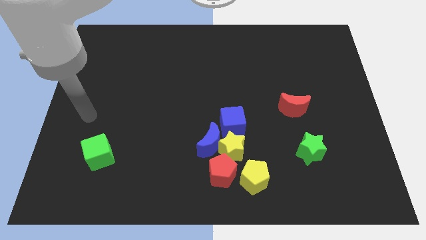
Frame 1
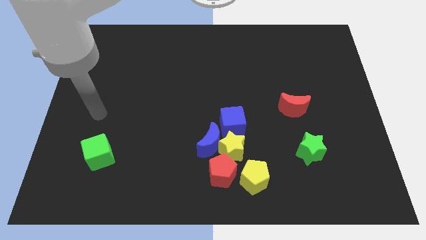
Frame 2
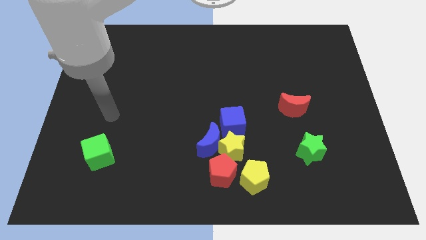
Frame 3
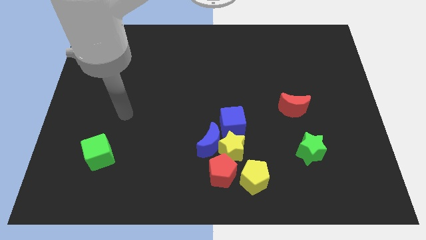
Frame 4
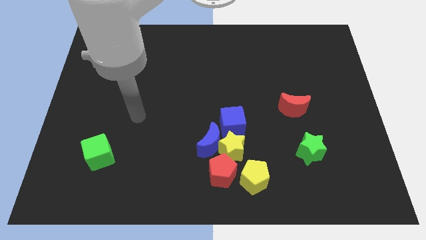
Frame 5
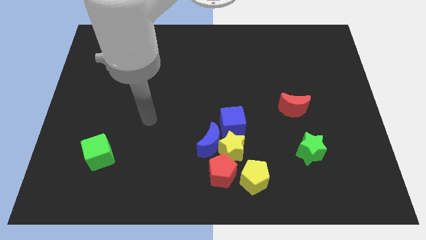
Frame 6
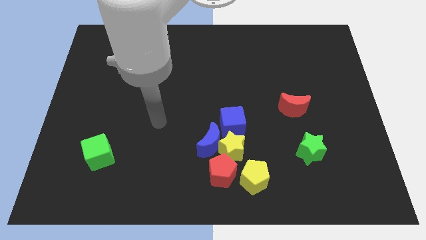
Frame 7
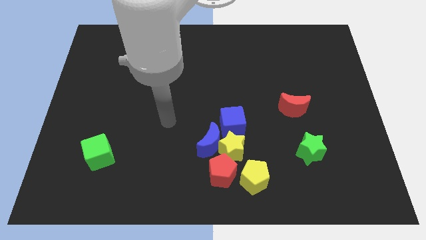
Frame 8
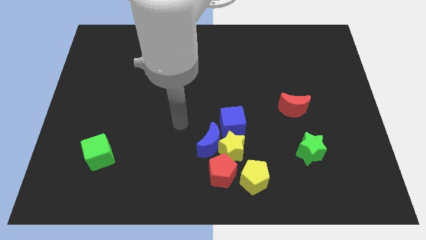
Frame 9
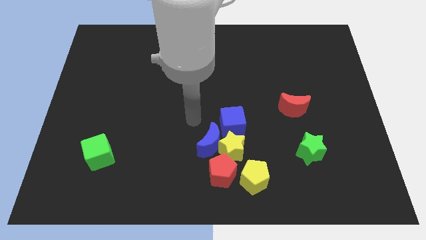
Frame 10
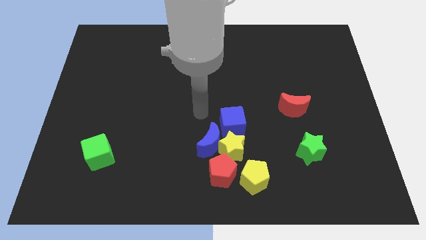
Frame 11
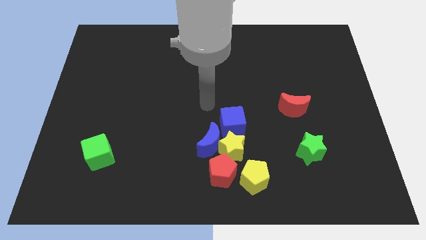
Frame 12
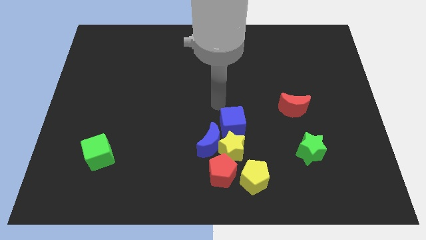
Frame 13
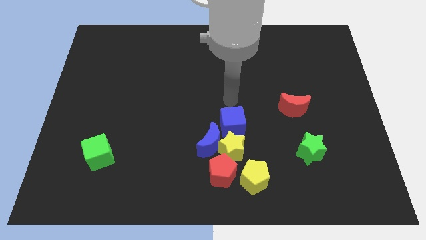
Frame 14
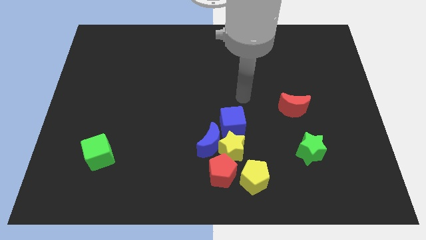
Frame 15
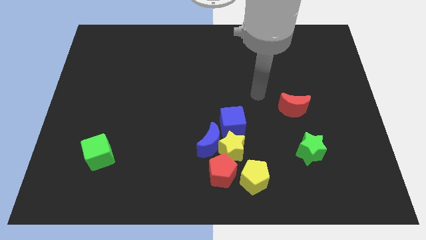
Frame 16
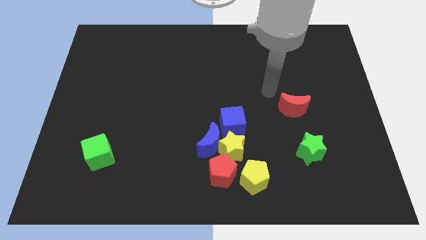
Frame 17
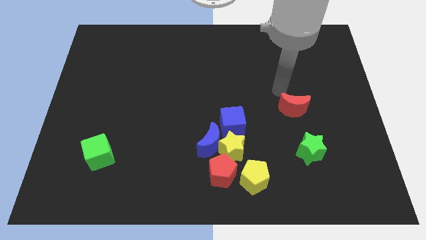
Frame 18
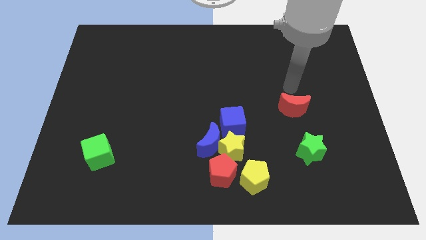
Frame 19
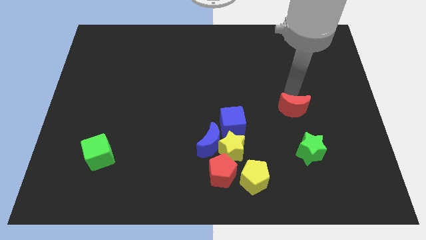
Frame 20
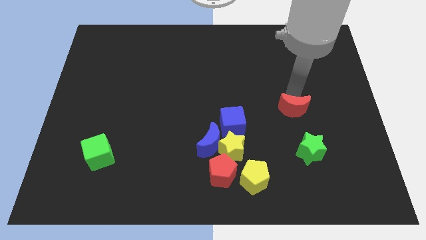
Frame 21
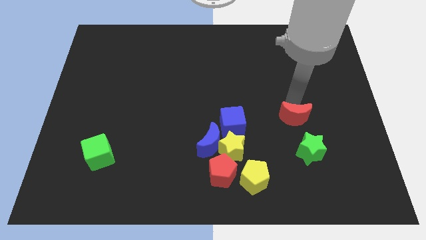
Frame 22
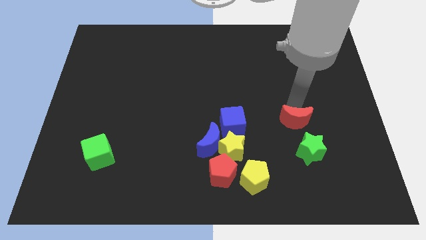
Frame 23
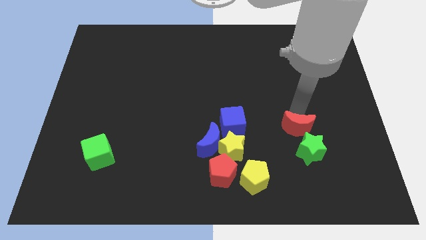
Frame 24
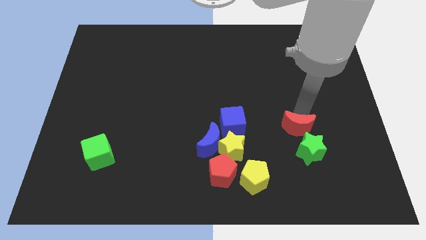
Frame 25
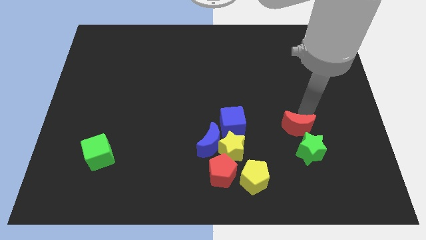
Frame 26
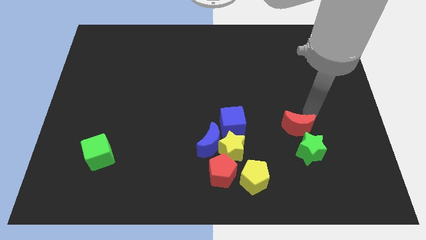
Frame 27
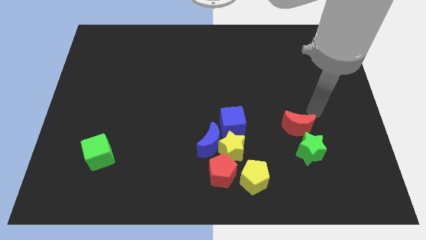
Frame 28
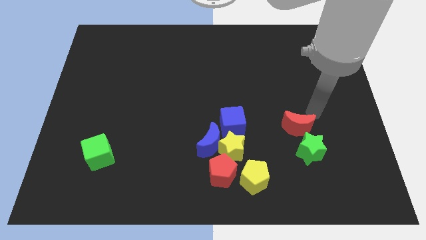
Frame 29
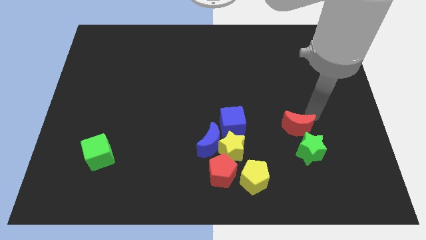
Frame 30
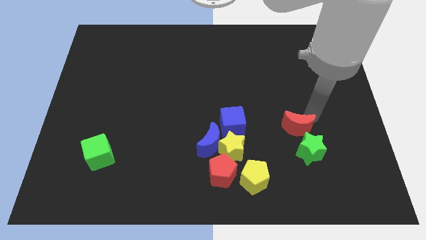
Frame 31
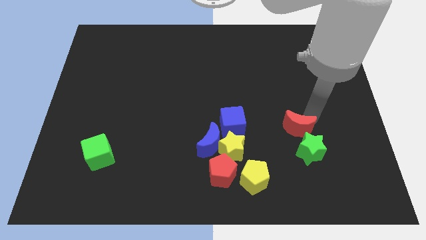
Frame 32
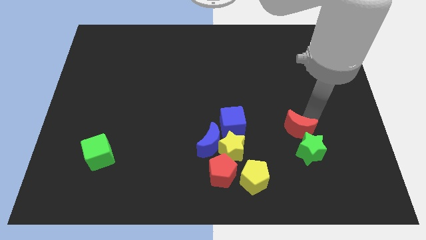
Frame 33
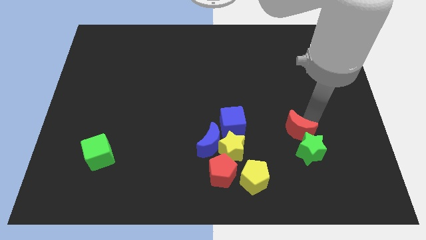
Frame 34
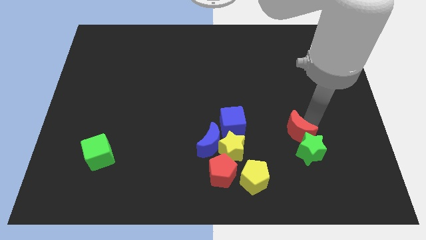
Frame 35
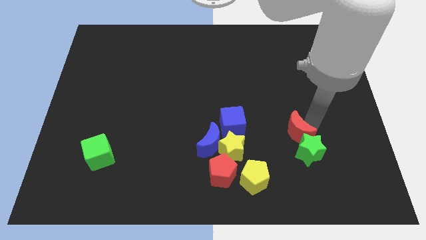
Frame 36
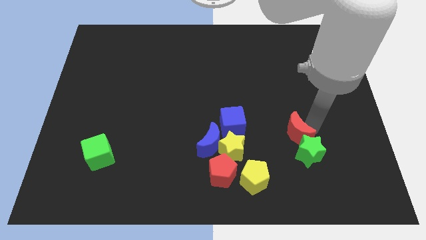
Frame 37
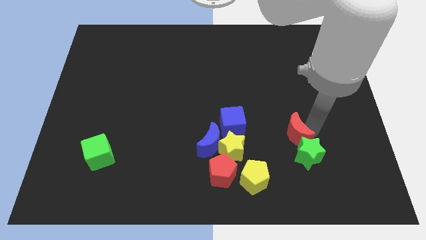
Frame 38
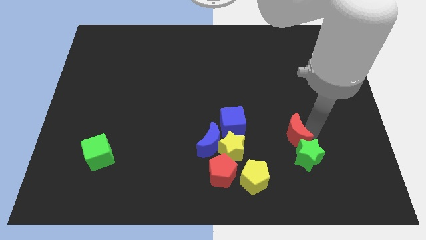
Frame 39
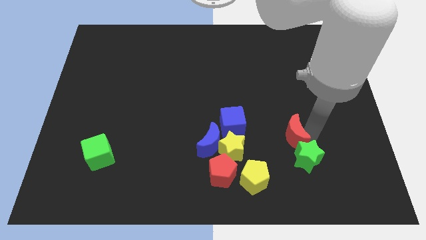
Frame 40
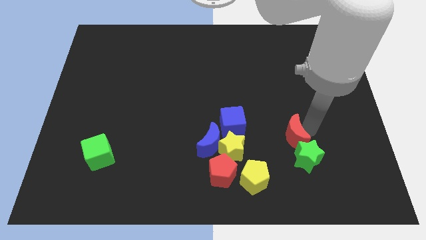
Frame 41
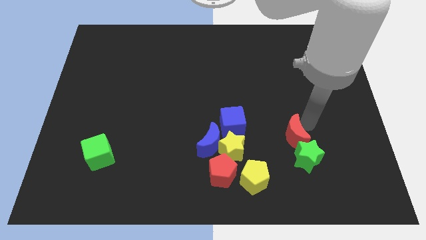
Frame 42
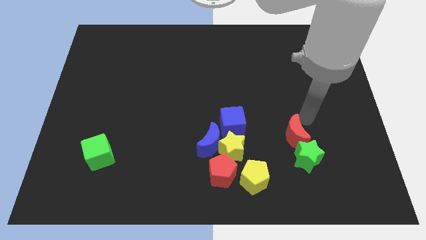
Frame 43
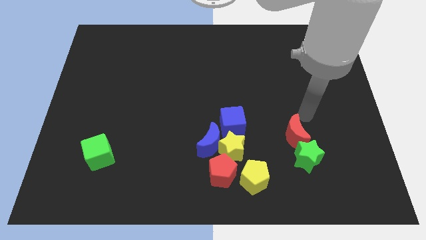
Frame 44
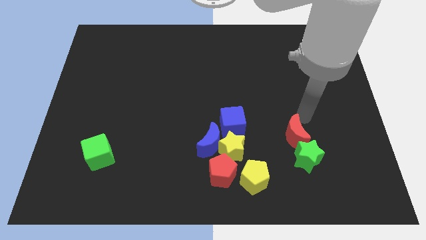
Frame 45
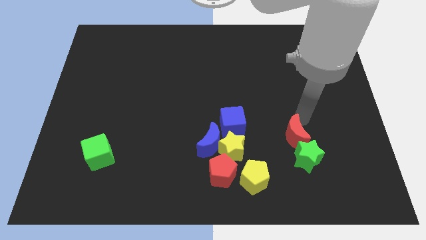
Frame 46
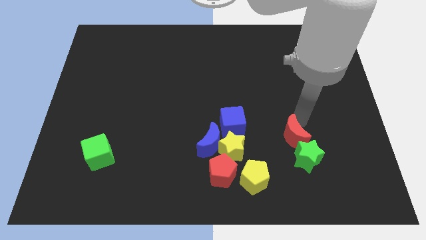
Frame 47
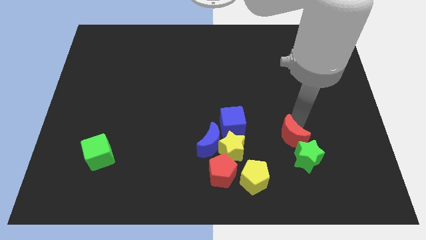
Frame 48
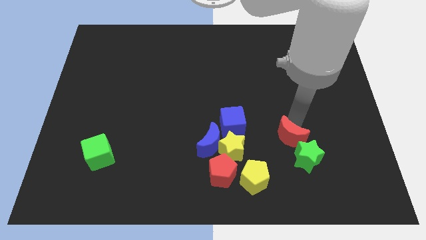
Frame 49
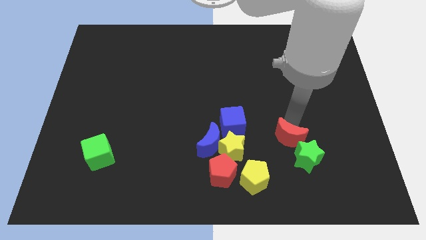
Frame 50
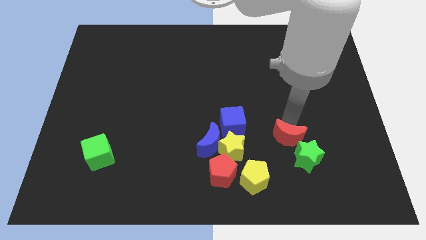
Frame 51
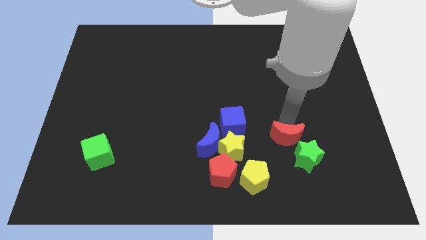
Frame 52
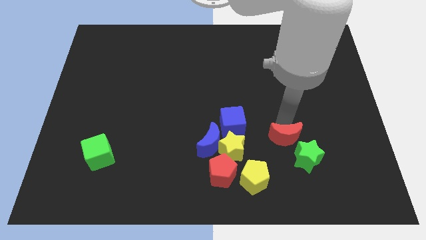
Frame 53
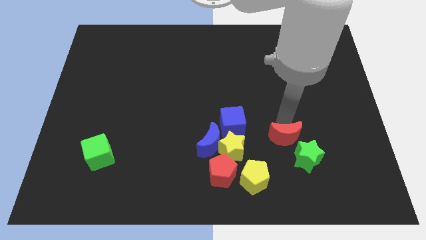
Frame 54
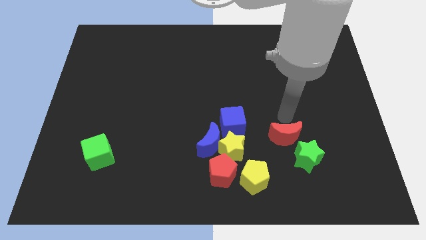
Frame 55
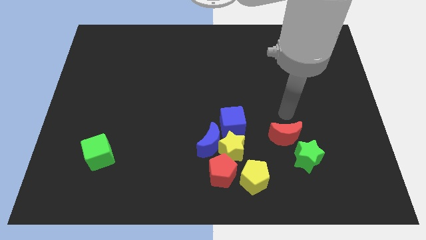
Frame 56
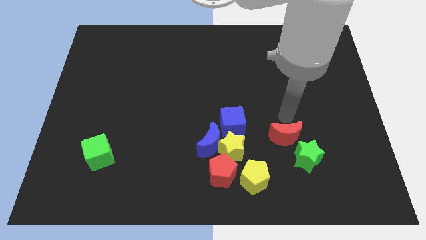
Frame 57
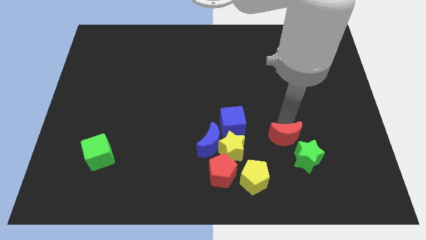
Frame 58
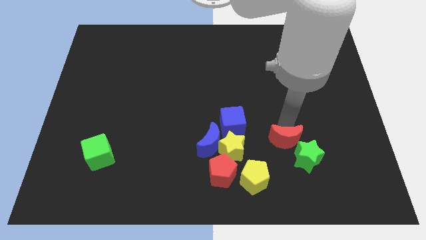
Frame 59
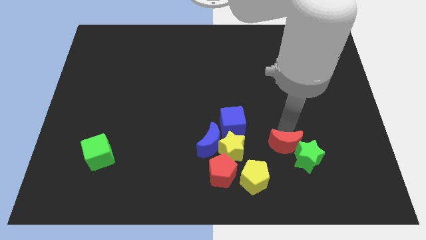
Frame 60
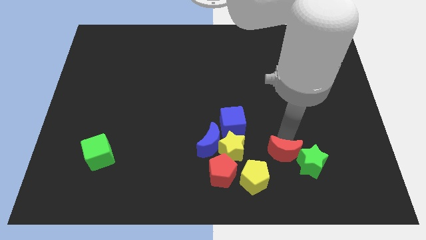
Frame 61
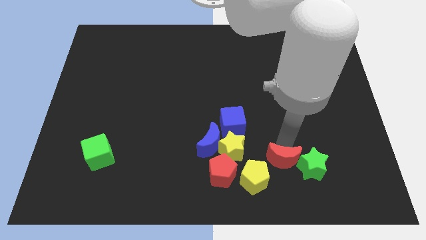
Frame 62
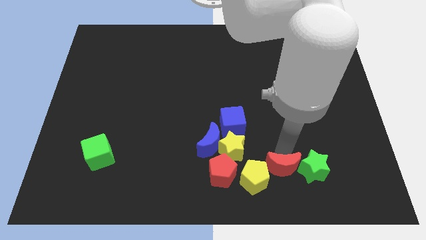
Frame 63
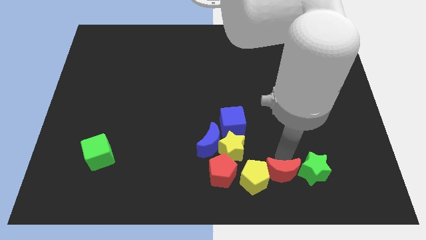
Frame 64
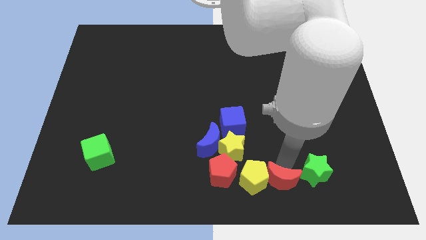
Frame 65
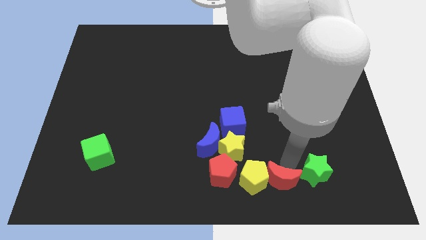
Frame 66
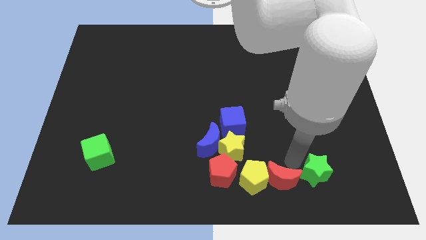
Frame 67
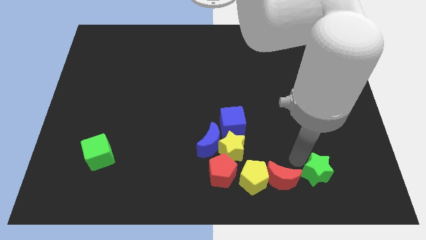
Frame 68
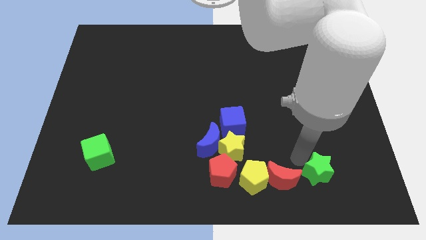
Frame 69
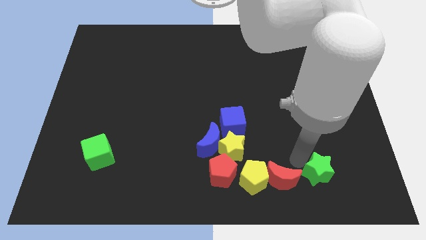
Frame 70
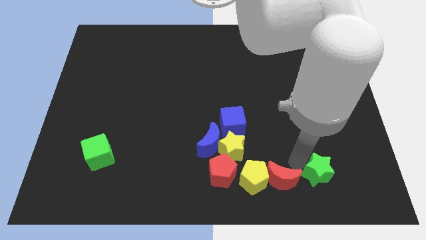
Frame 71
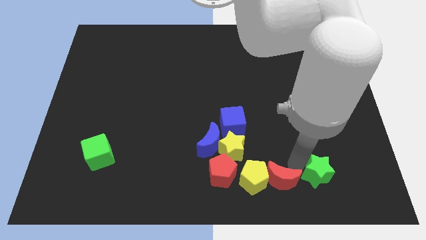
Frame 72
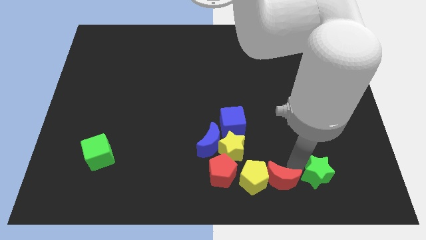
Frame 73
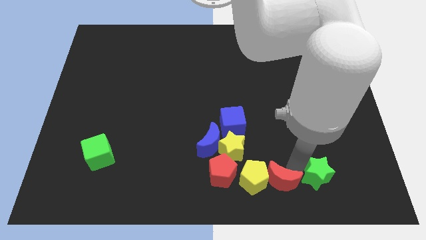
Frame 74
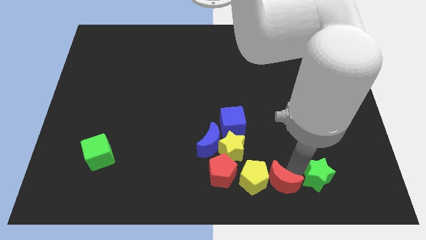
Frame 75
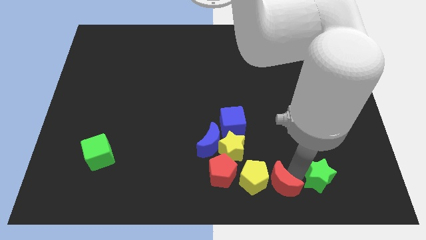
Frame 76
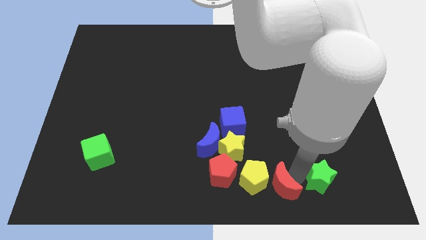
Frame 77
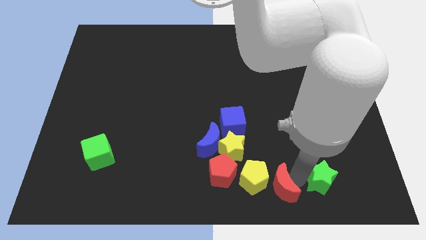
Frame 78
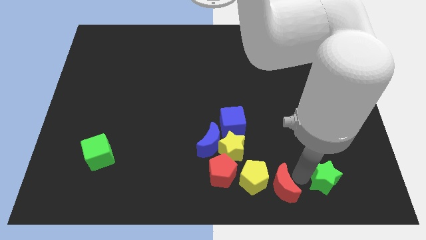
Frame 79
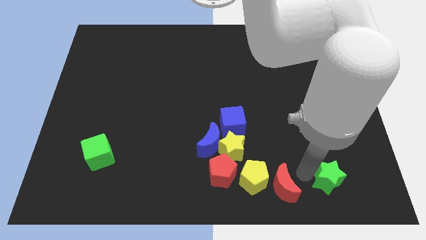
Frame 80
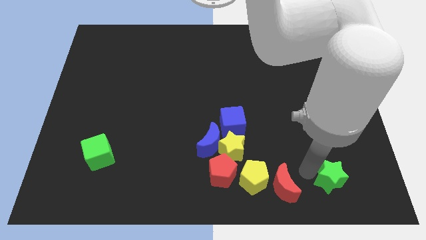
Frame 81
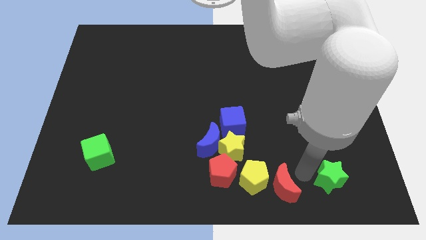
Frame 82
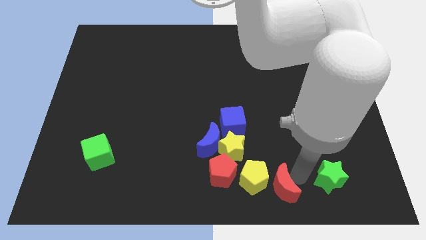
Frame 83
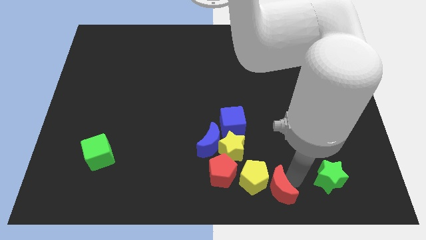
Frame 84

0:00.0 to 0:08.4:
slide the red moon to the bottom side
